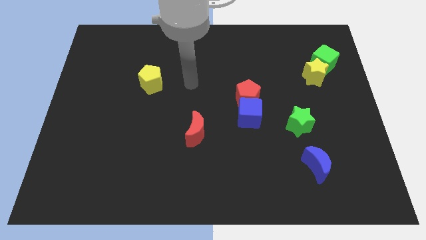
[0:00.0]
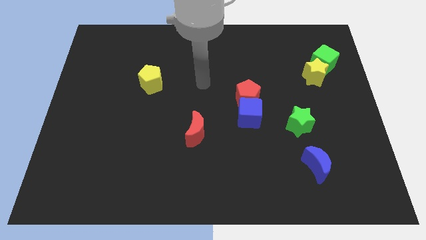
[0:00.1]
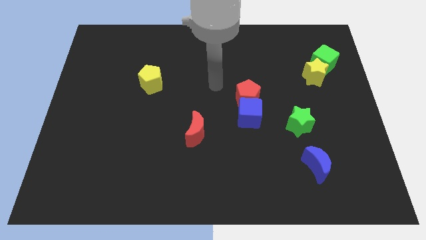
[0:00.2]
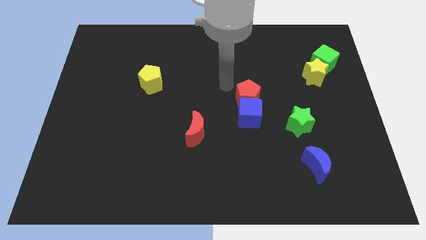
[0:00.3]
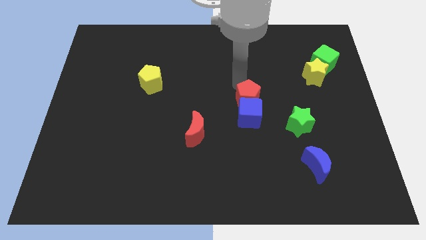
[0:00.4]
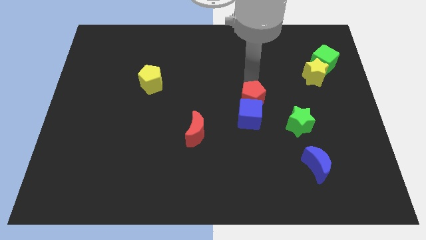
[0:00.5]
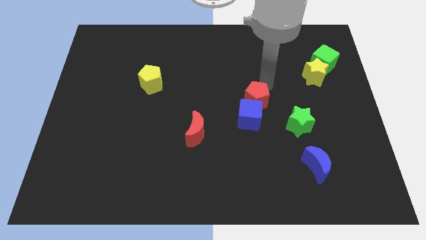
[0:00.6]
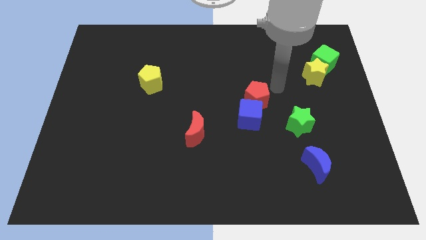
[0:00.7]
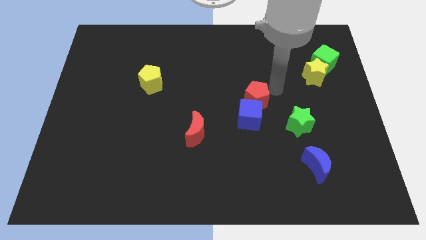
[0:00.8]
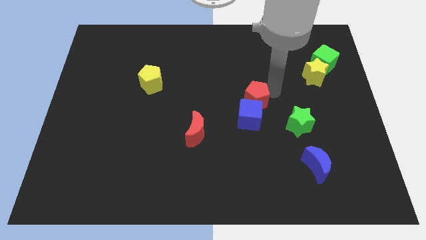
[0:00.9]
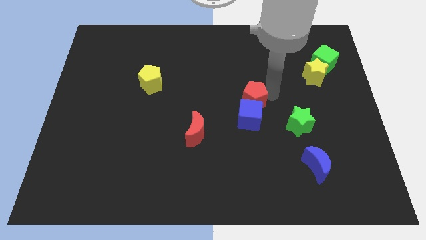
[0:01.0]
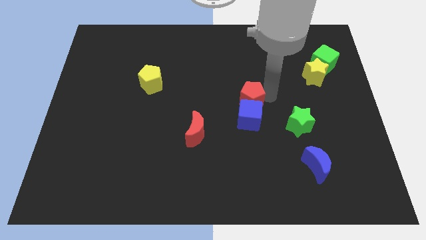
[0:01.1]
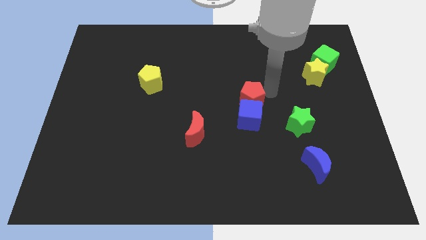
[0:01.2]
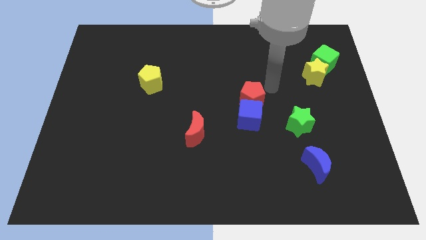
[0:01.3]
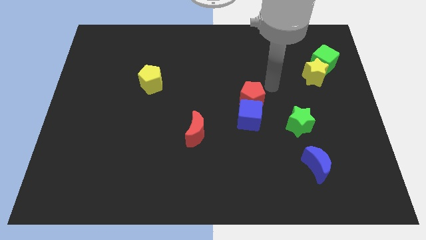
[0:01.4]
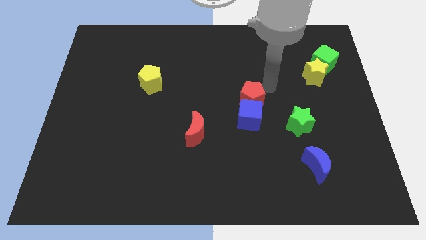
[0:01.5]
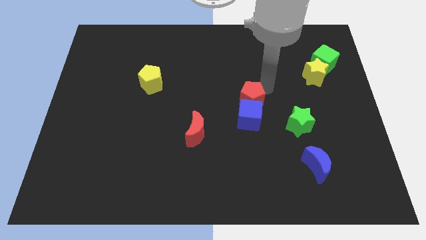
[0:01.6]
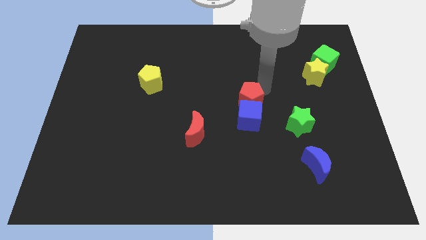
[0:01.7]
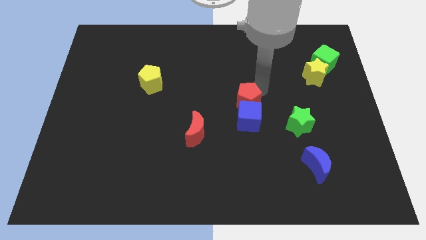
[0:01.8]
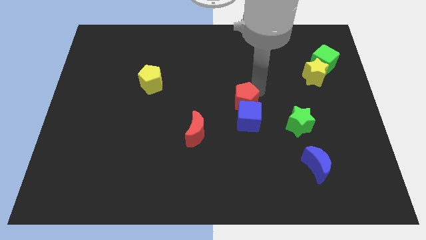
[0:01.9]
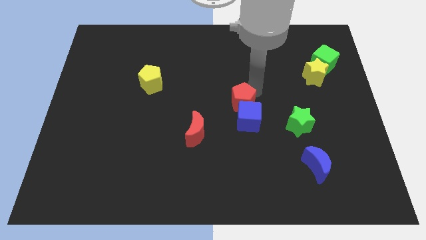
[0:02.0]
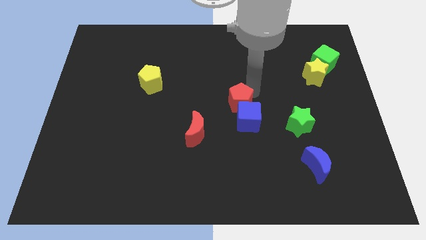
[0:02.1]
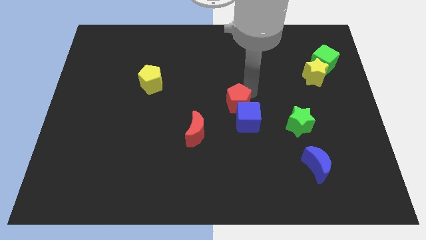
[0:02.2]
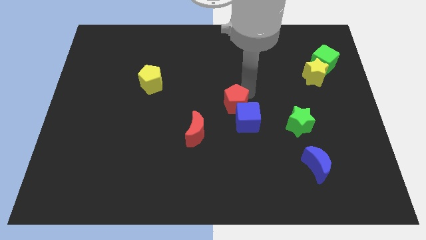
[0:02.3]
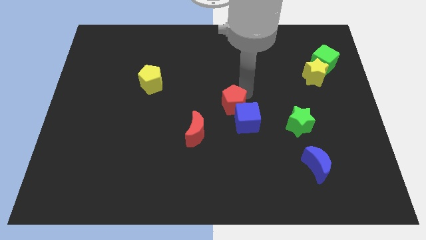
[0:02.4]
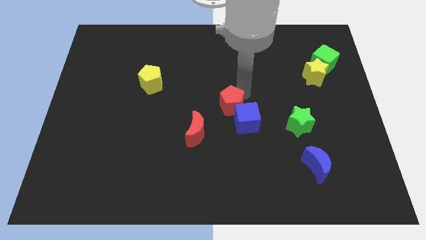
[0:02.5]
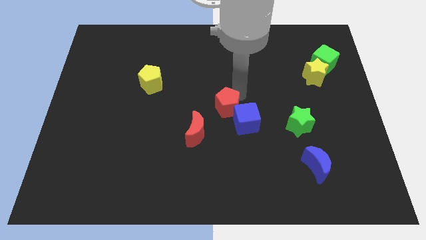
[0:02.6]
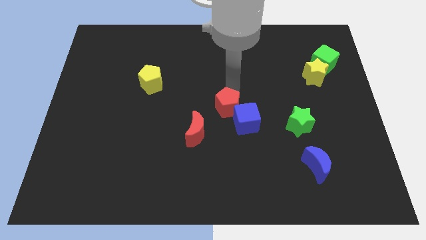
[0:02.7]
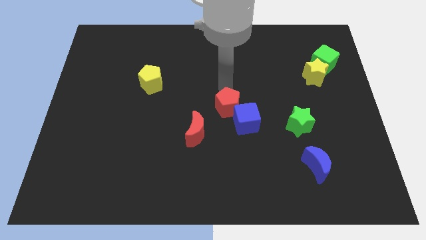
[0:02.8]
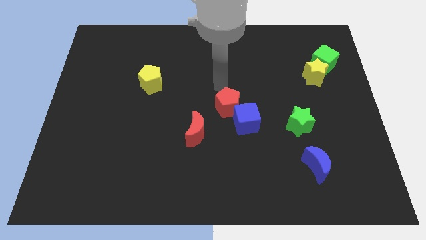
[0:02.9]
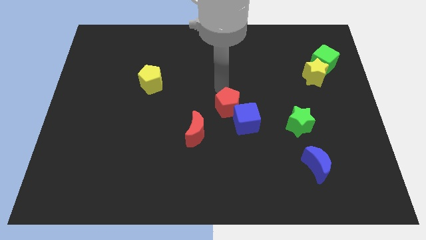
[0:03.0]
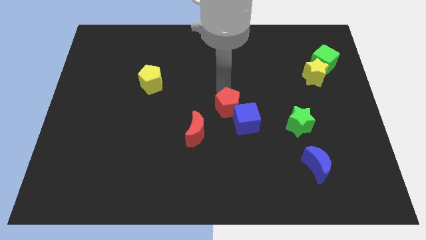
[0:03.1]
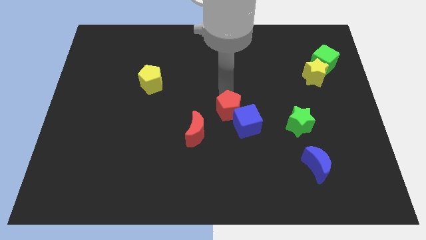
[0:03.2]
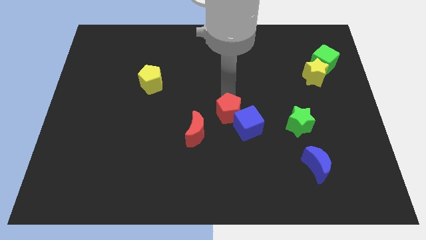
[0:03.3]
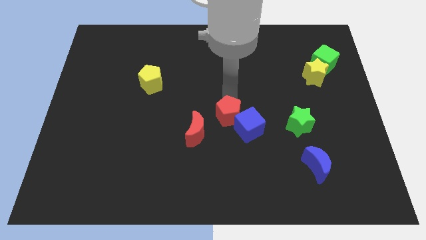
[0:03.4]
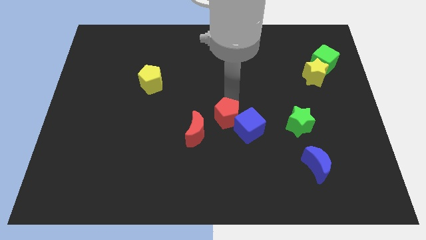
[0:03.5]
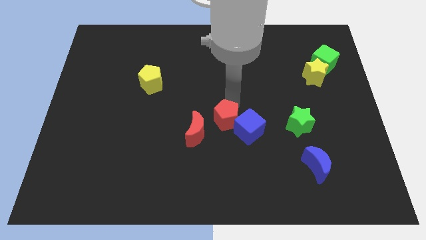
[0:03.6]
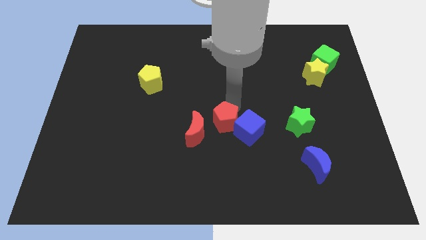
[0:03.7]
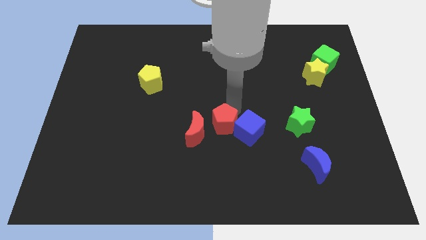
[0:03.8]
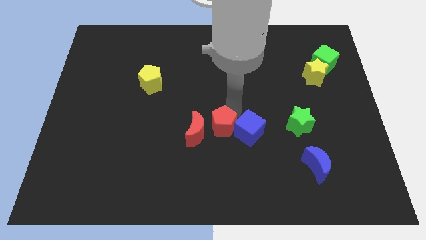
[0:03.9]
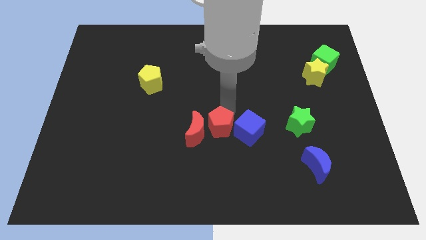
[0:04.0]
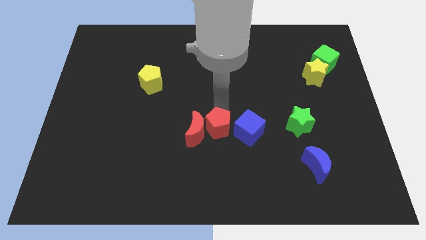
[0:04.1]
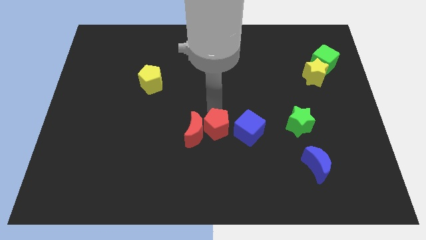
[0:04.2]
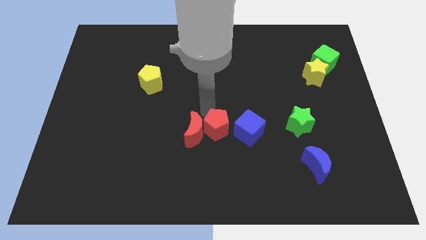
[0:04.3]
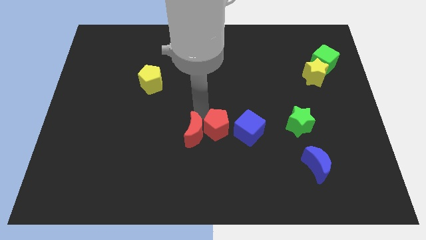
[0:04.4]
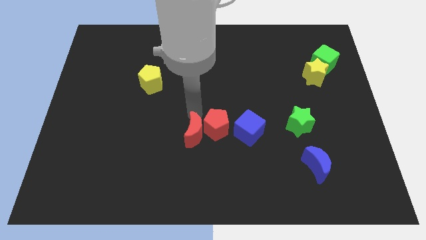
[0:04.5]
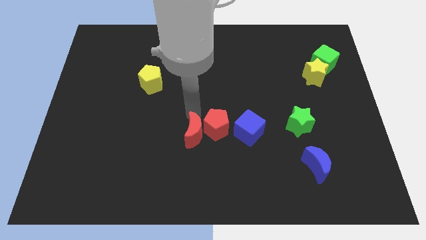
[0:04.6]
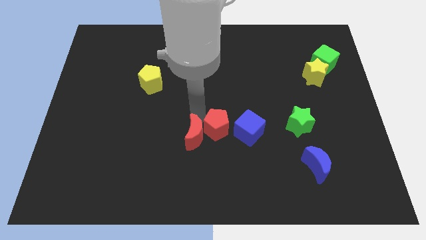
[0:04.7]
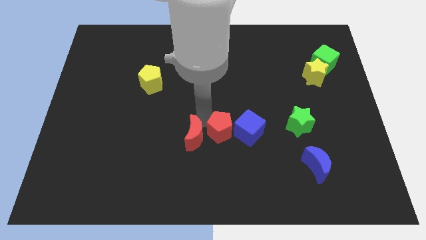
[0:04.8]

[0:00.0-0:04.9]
slightly move the red pentagon downwards

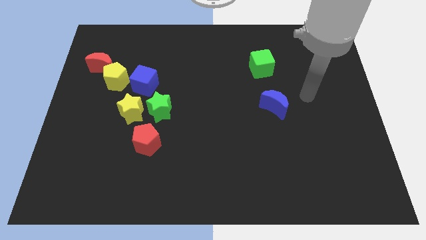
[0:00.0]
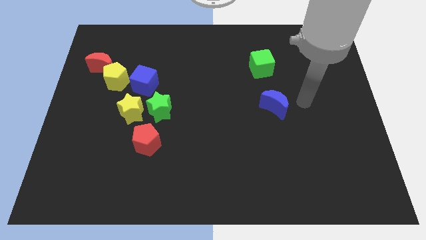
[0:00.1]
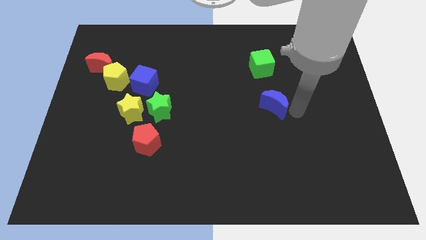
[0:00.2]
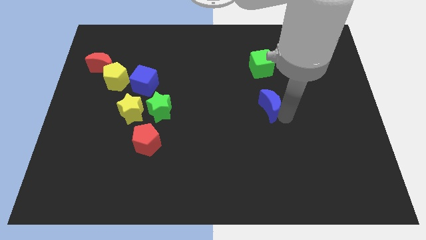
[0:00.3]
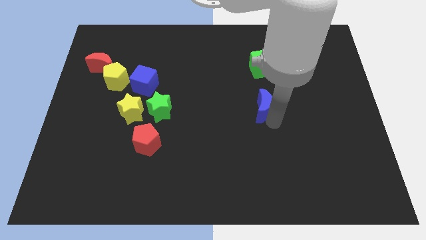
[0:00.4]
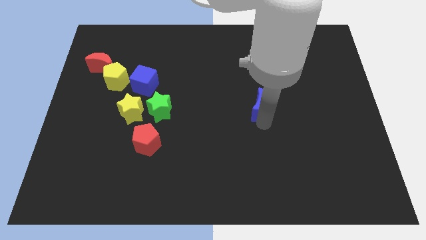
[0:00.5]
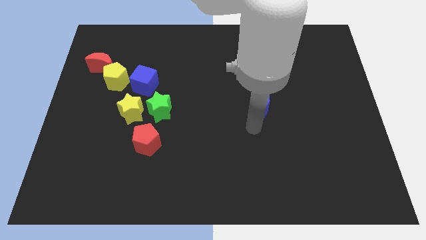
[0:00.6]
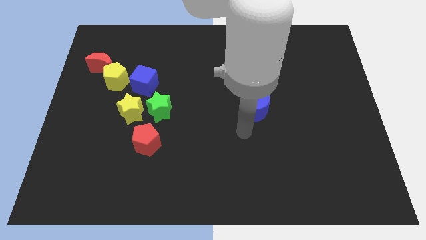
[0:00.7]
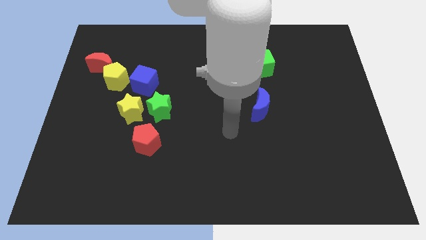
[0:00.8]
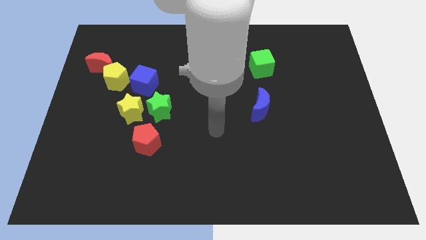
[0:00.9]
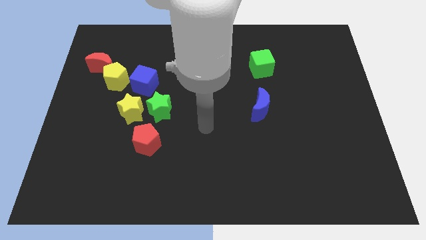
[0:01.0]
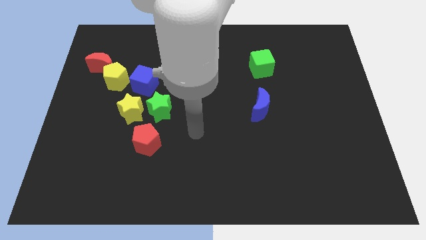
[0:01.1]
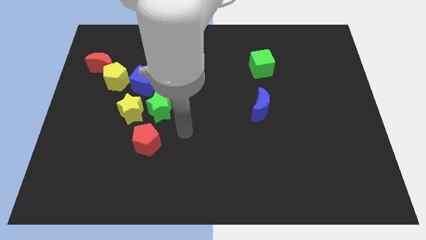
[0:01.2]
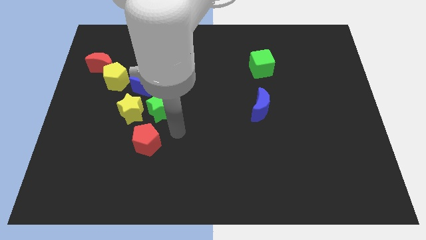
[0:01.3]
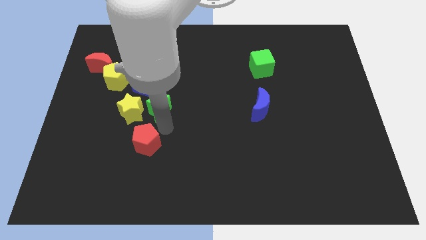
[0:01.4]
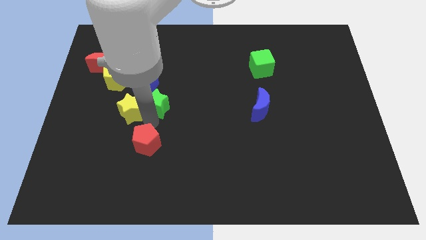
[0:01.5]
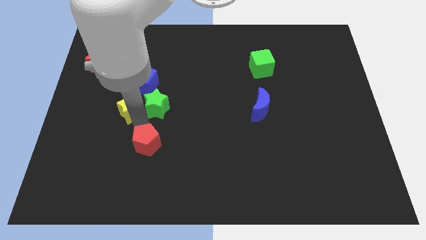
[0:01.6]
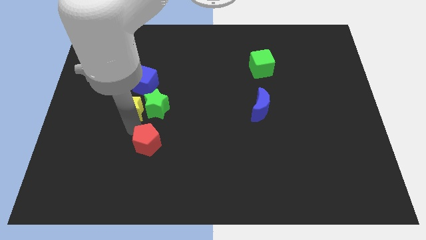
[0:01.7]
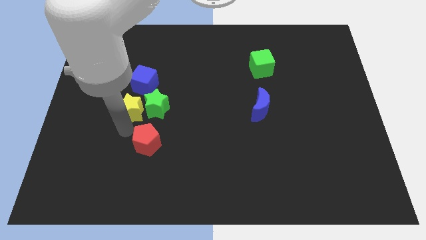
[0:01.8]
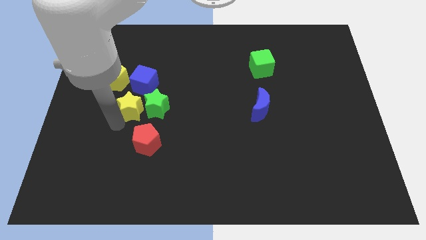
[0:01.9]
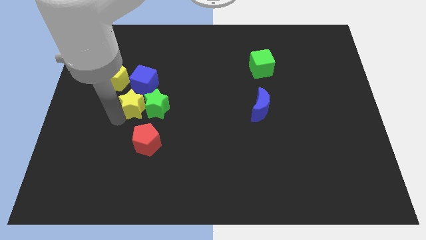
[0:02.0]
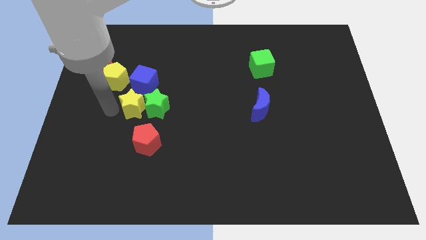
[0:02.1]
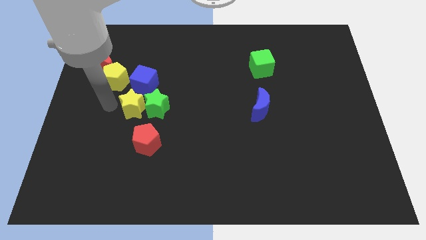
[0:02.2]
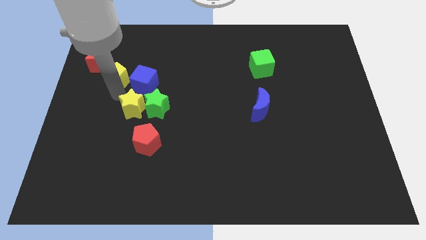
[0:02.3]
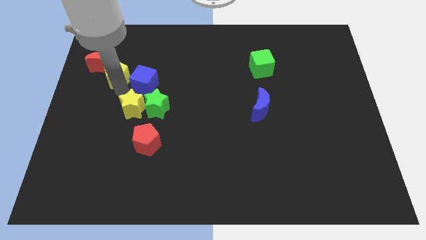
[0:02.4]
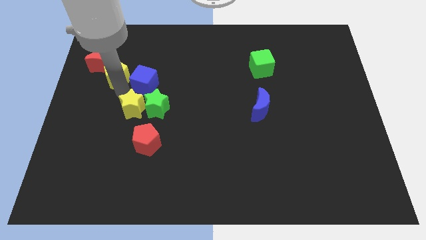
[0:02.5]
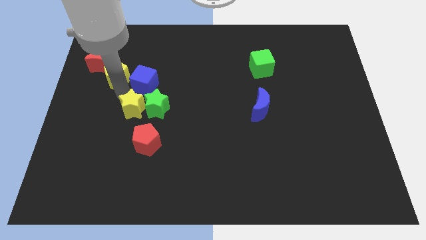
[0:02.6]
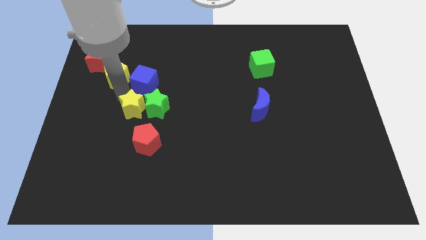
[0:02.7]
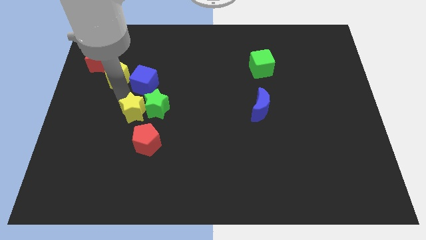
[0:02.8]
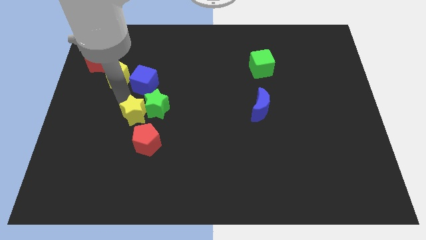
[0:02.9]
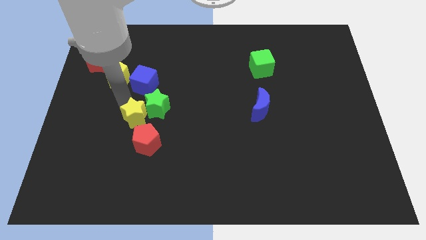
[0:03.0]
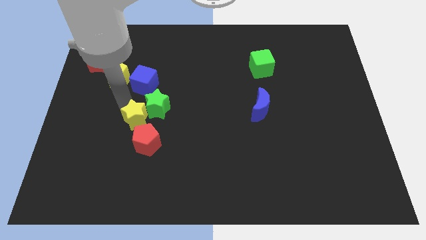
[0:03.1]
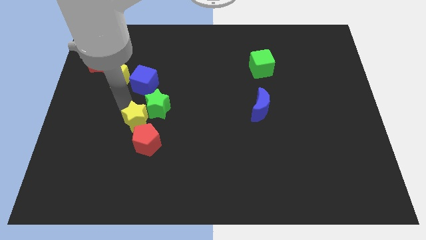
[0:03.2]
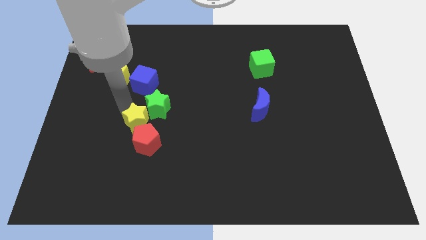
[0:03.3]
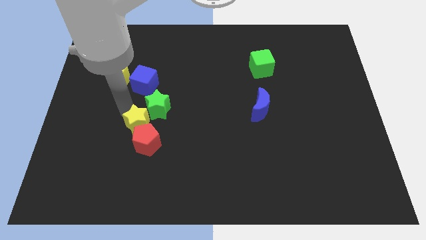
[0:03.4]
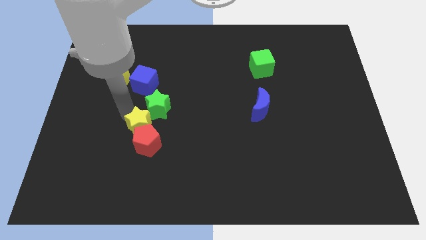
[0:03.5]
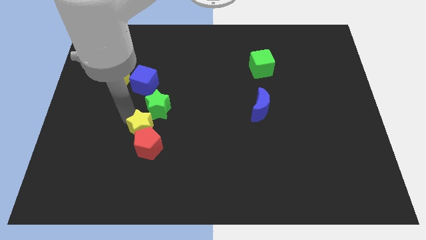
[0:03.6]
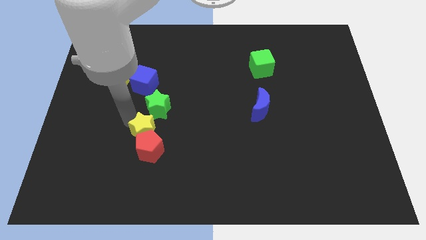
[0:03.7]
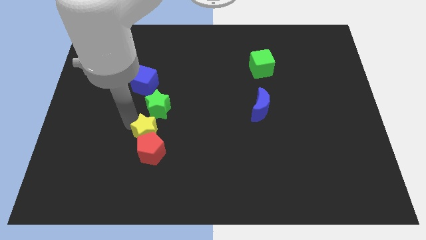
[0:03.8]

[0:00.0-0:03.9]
push the yellow star downwards and then right a bit
